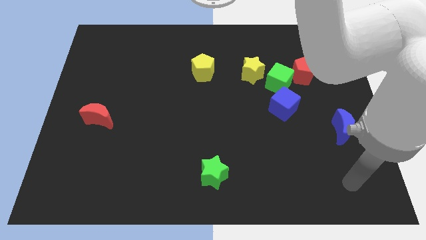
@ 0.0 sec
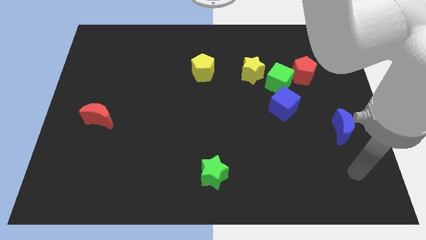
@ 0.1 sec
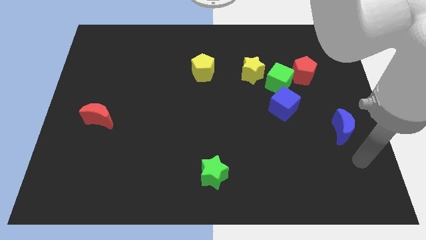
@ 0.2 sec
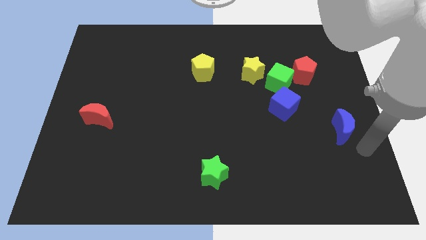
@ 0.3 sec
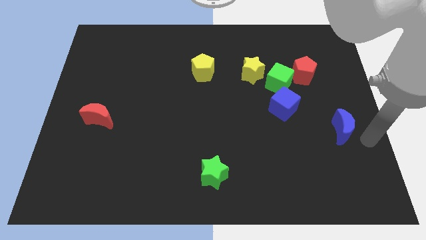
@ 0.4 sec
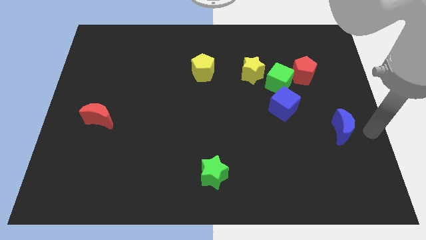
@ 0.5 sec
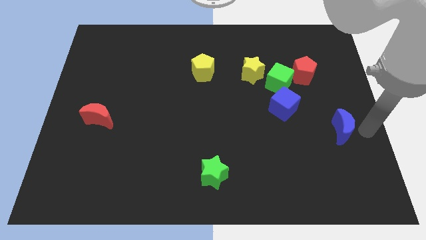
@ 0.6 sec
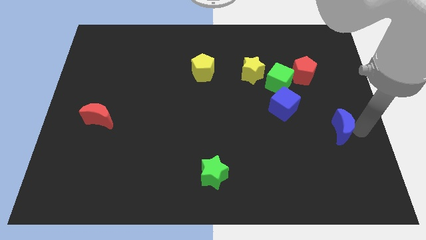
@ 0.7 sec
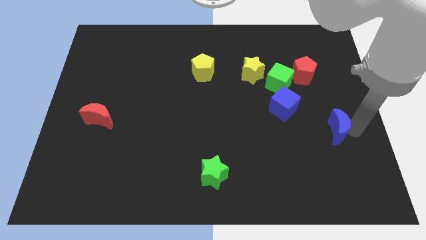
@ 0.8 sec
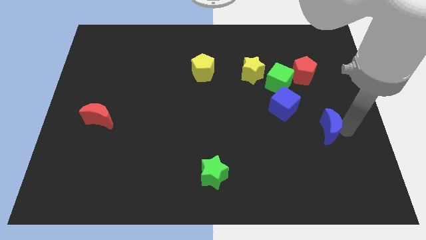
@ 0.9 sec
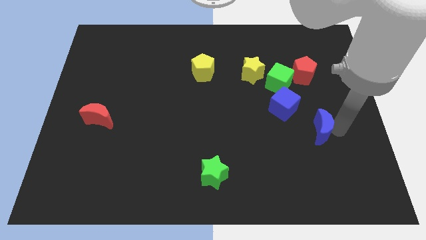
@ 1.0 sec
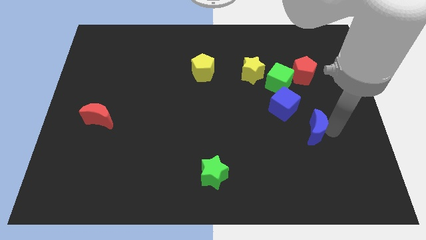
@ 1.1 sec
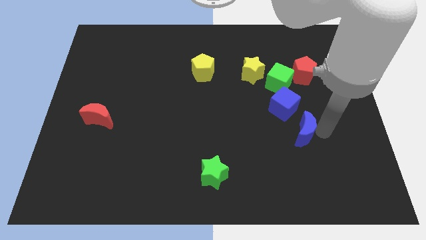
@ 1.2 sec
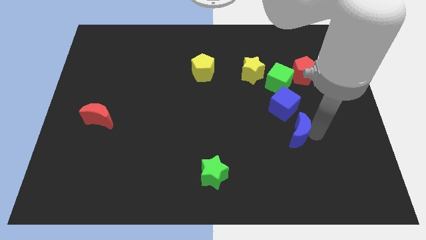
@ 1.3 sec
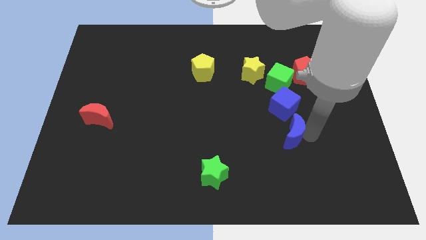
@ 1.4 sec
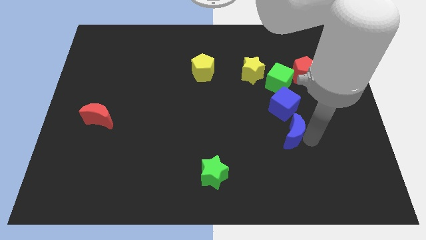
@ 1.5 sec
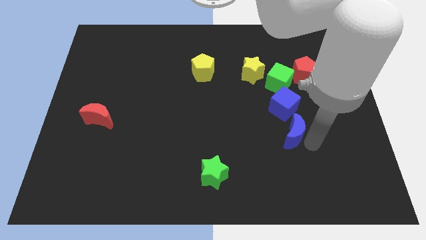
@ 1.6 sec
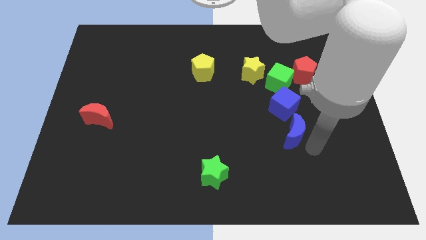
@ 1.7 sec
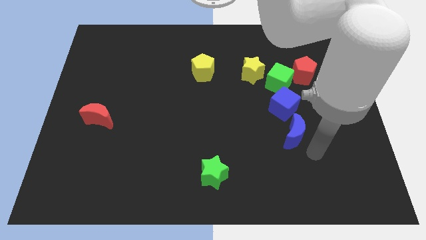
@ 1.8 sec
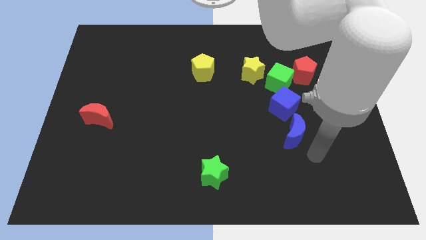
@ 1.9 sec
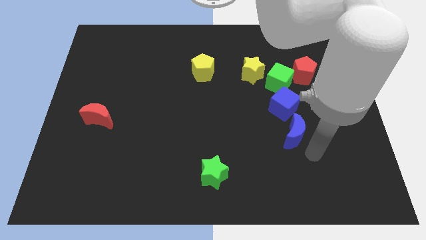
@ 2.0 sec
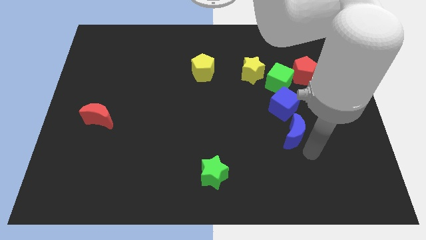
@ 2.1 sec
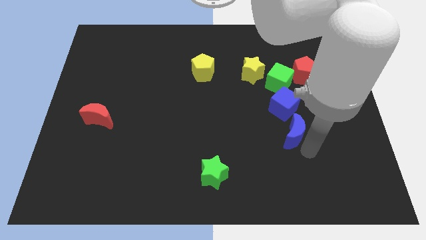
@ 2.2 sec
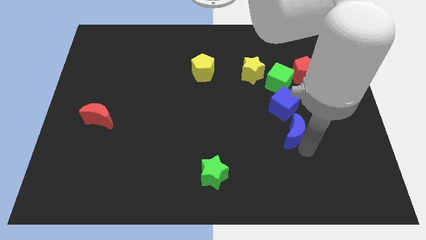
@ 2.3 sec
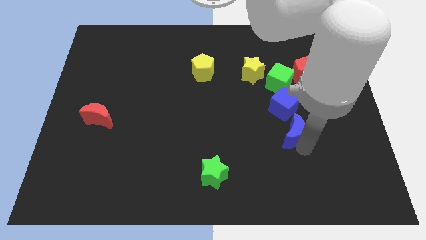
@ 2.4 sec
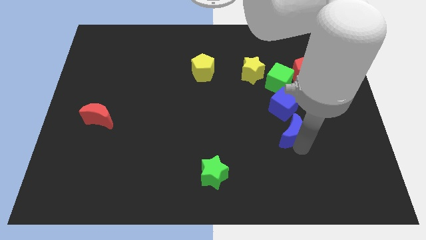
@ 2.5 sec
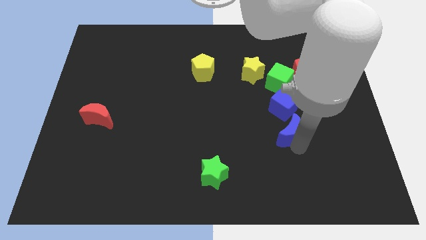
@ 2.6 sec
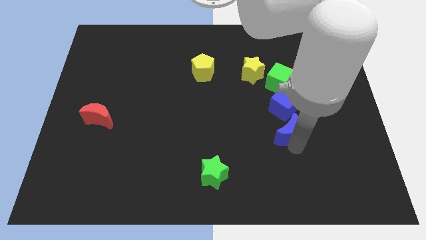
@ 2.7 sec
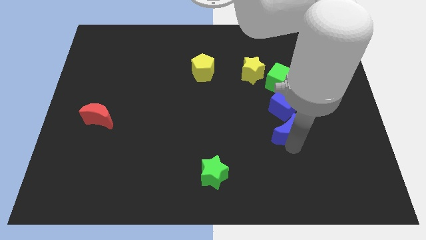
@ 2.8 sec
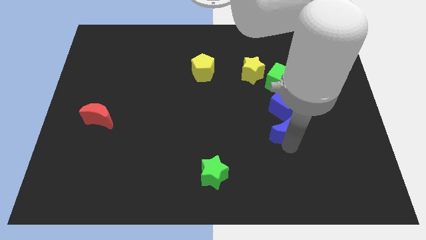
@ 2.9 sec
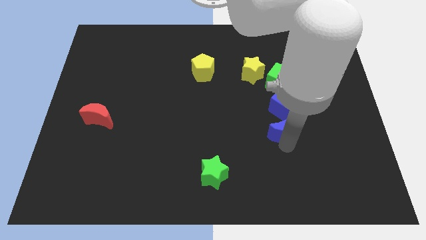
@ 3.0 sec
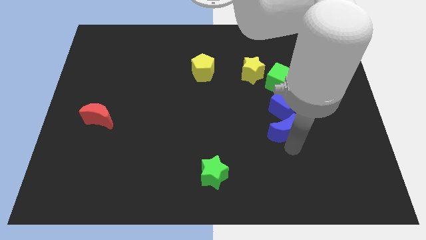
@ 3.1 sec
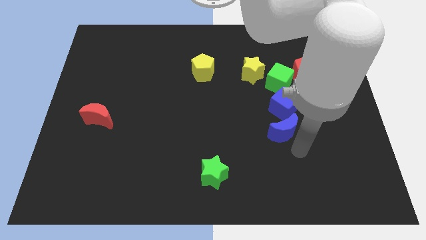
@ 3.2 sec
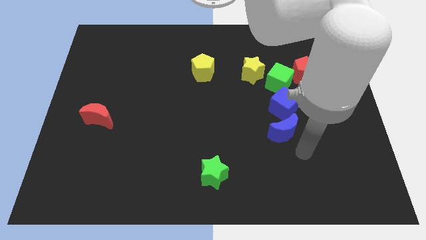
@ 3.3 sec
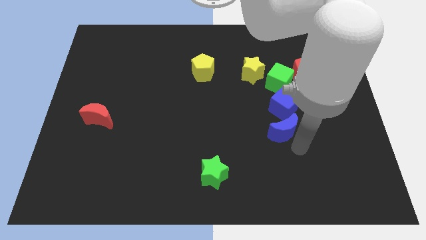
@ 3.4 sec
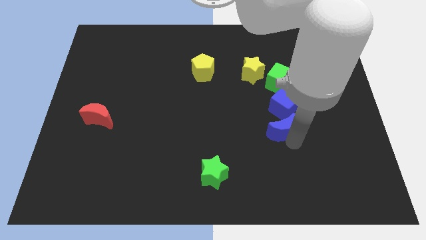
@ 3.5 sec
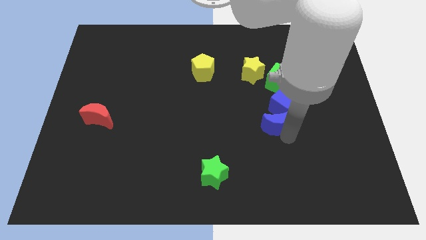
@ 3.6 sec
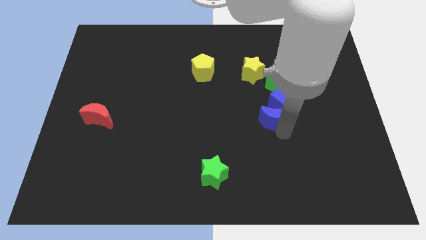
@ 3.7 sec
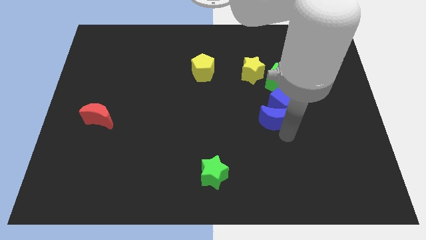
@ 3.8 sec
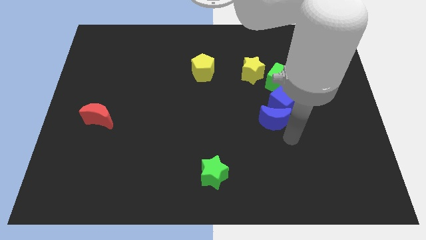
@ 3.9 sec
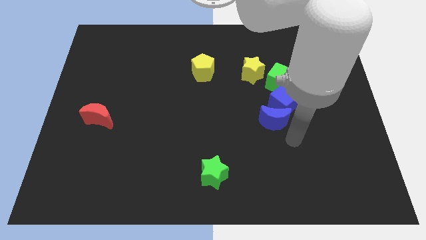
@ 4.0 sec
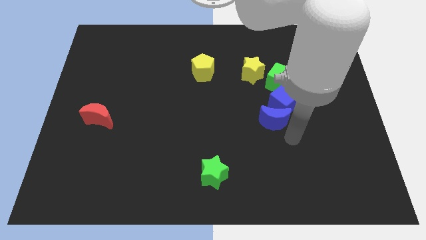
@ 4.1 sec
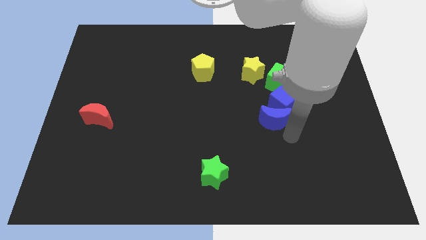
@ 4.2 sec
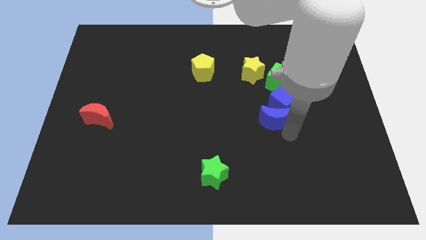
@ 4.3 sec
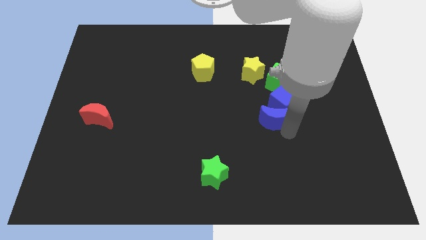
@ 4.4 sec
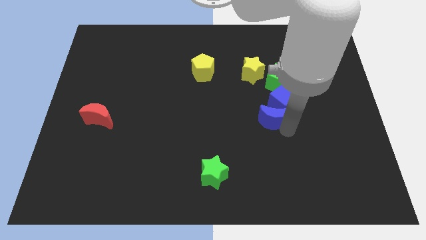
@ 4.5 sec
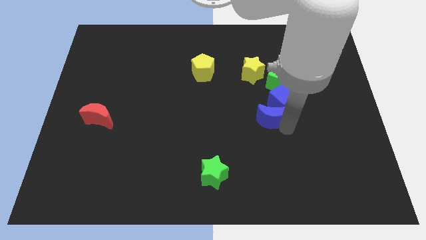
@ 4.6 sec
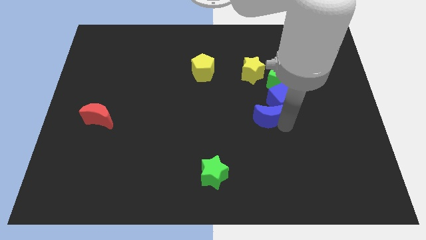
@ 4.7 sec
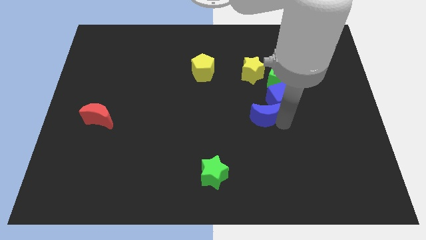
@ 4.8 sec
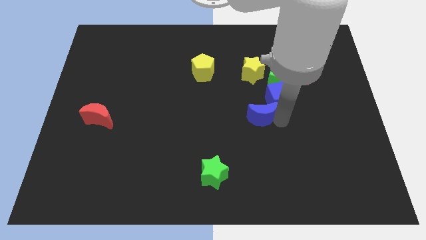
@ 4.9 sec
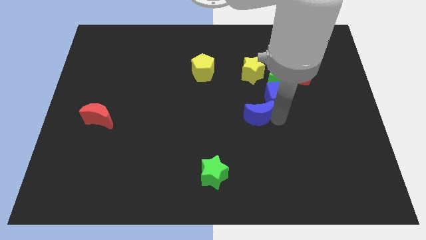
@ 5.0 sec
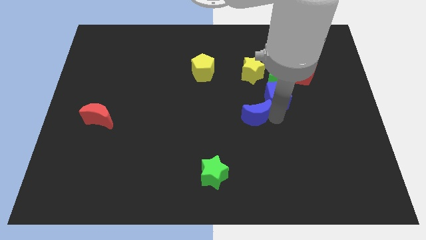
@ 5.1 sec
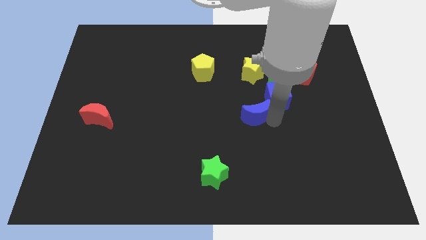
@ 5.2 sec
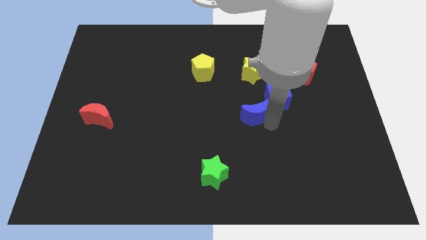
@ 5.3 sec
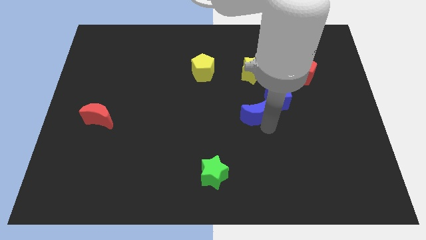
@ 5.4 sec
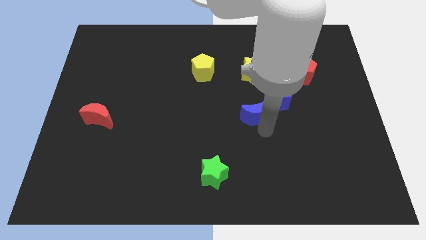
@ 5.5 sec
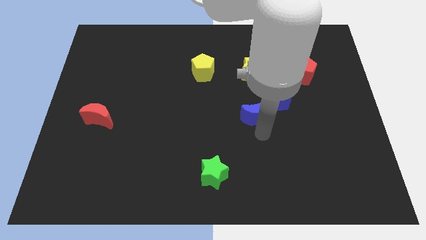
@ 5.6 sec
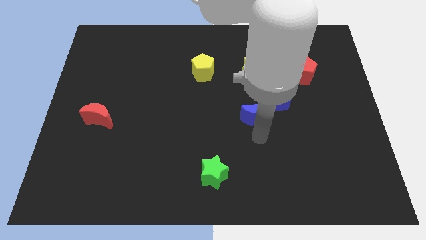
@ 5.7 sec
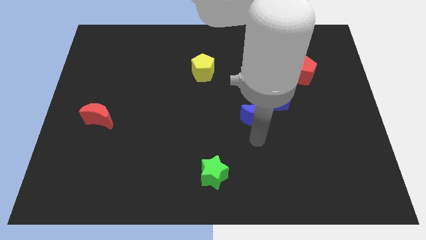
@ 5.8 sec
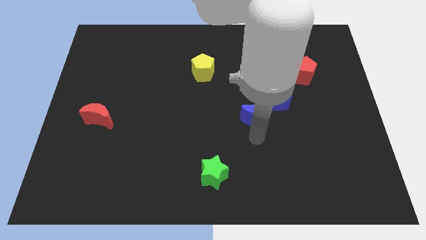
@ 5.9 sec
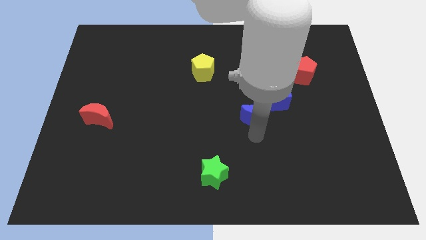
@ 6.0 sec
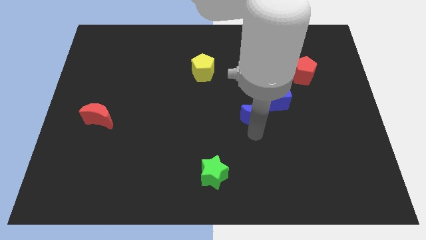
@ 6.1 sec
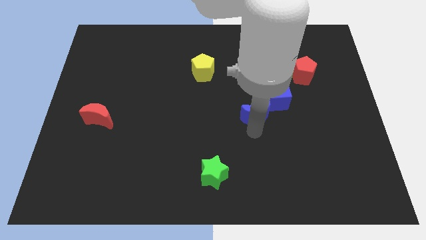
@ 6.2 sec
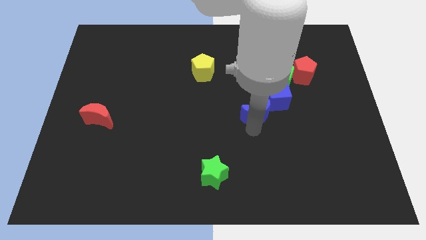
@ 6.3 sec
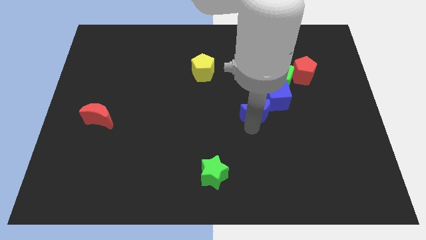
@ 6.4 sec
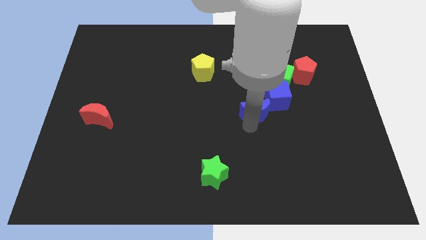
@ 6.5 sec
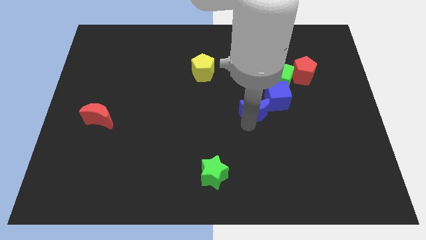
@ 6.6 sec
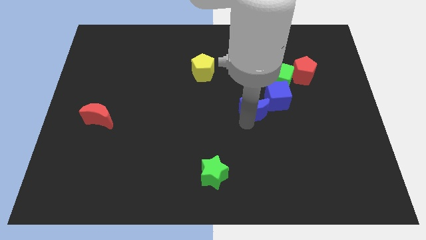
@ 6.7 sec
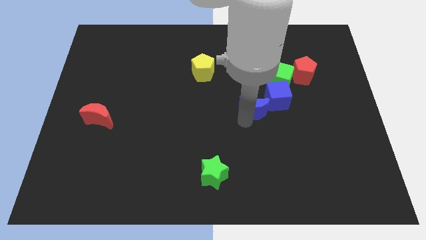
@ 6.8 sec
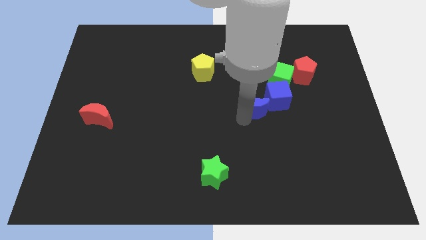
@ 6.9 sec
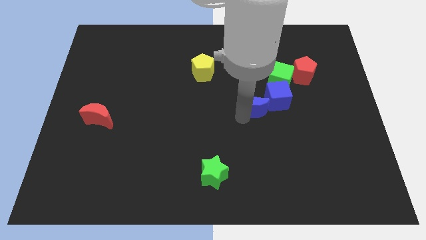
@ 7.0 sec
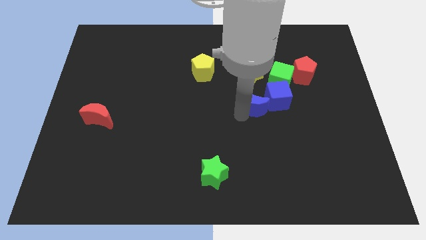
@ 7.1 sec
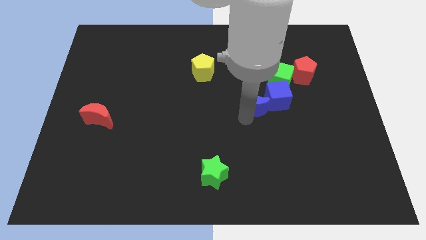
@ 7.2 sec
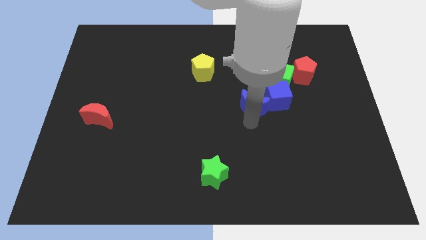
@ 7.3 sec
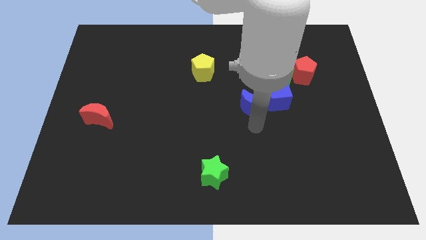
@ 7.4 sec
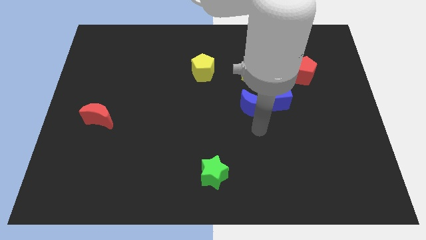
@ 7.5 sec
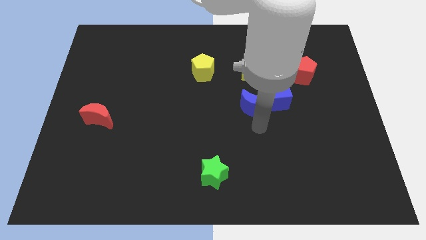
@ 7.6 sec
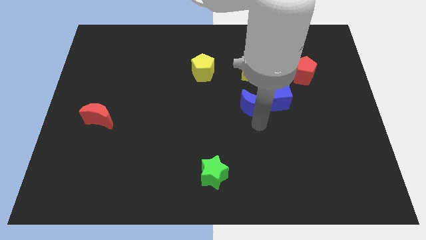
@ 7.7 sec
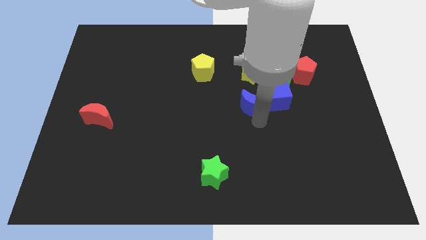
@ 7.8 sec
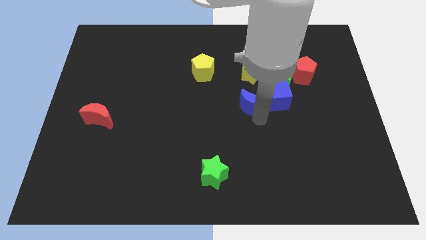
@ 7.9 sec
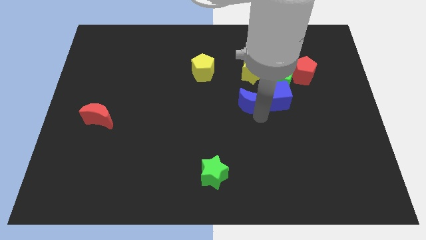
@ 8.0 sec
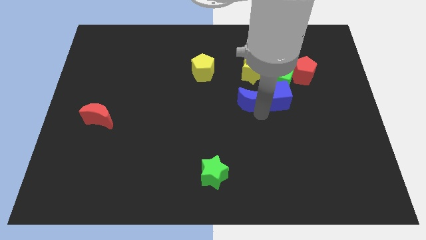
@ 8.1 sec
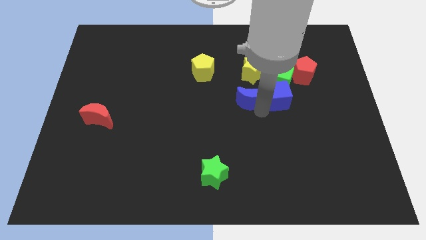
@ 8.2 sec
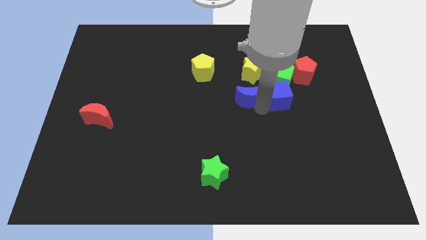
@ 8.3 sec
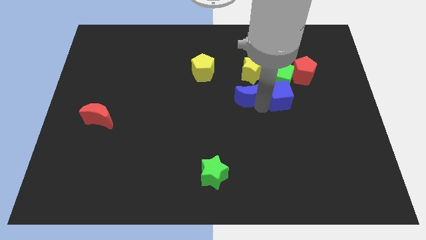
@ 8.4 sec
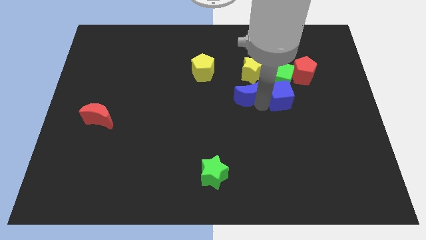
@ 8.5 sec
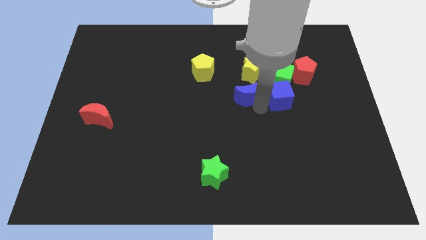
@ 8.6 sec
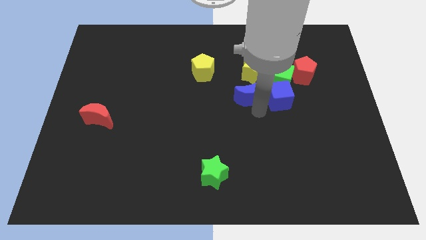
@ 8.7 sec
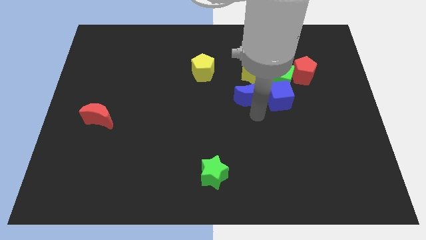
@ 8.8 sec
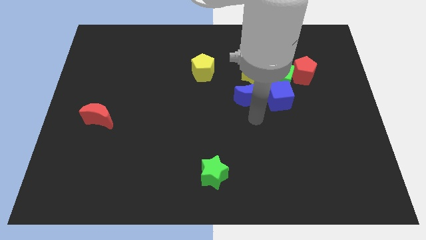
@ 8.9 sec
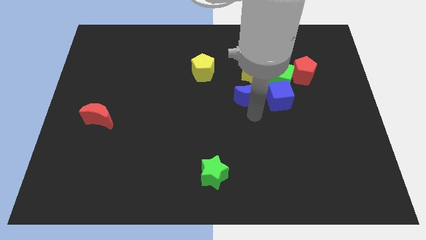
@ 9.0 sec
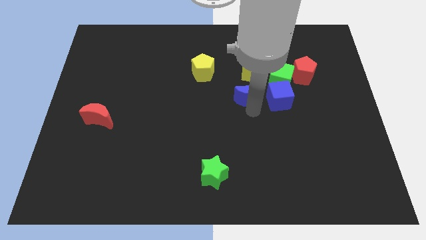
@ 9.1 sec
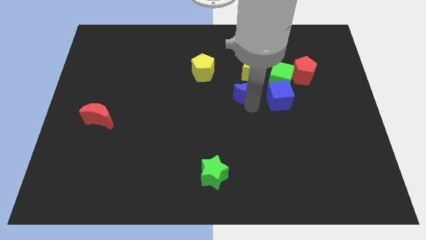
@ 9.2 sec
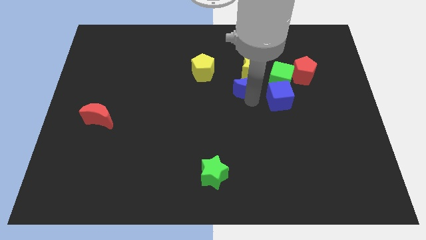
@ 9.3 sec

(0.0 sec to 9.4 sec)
move the blue moon up and to the left diagonally
